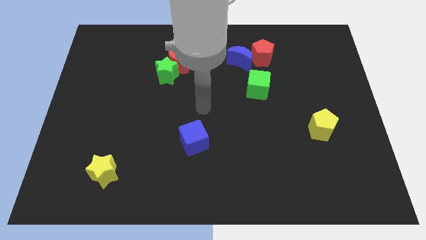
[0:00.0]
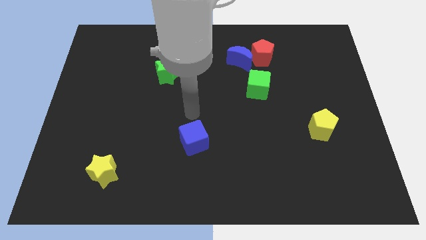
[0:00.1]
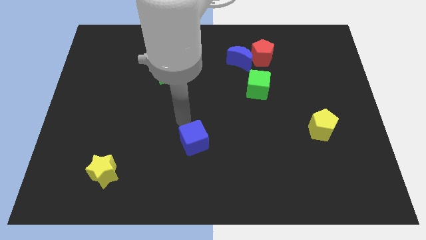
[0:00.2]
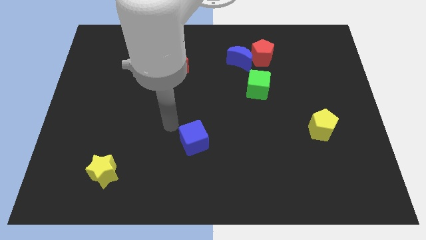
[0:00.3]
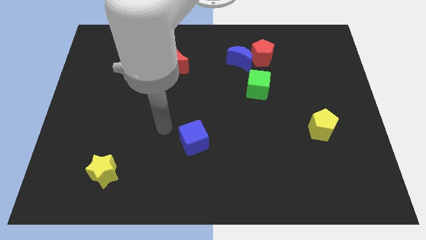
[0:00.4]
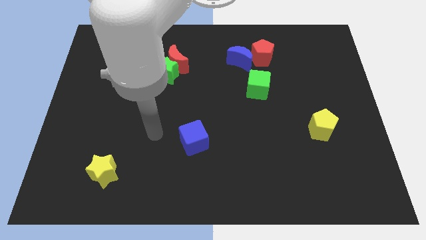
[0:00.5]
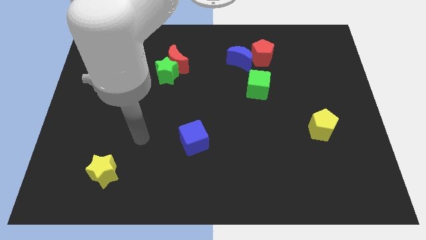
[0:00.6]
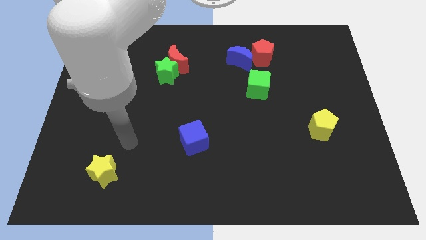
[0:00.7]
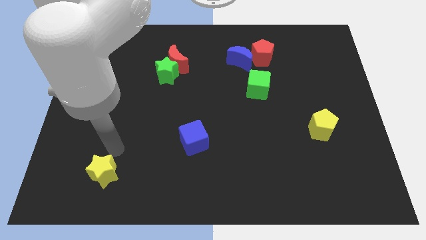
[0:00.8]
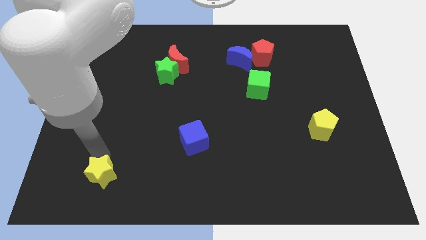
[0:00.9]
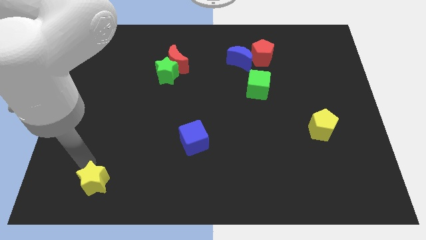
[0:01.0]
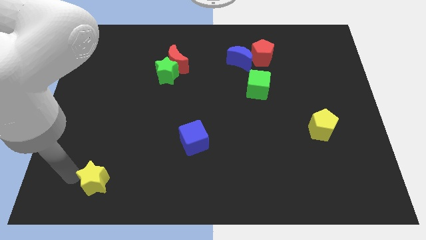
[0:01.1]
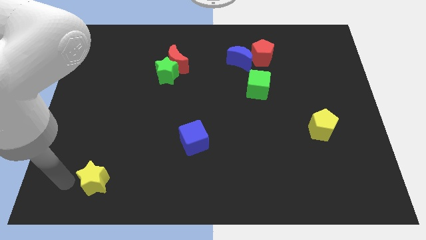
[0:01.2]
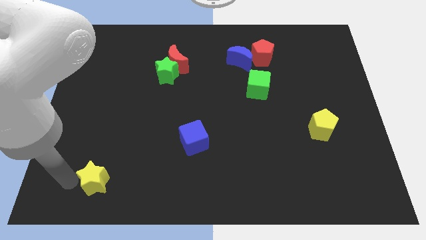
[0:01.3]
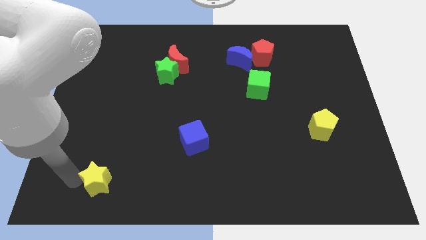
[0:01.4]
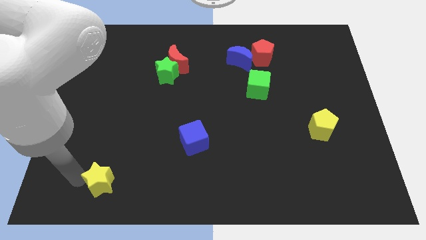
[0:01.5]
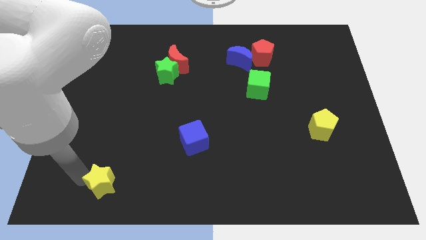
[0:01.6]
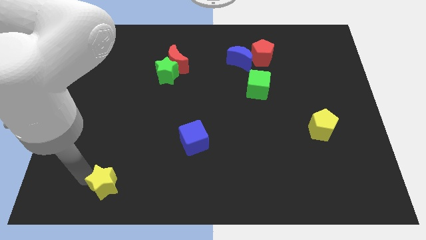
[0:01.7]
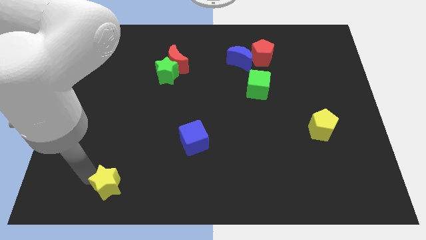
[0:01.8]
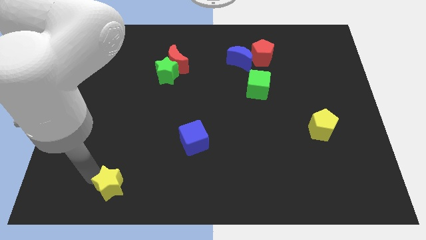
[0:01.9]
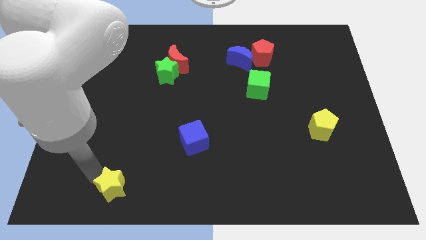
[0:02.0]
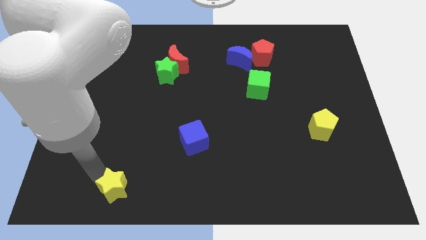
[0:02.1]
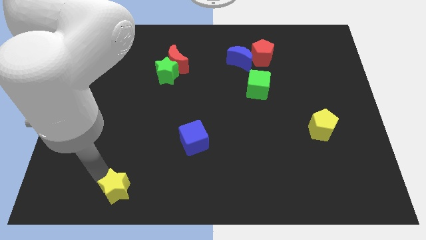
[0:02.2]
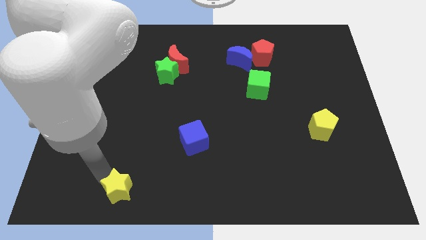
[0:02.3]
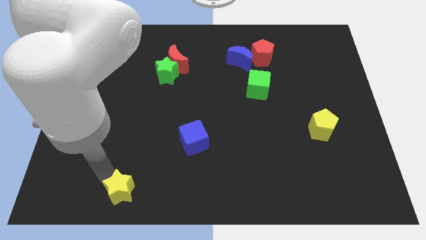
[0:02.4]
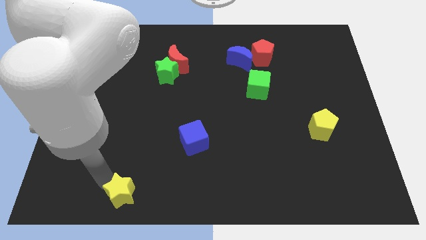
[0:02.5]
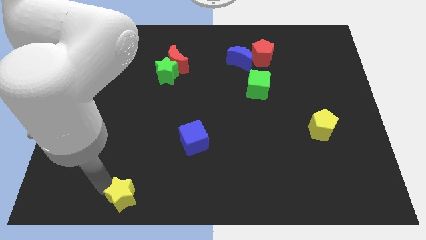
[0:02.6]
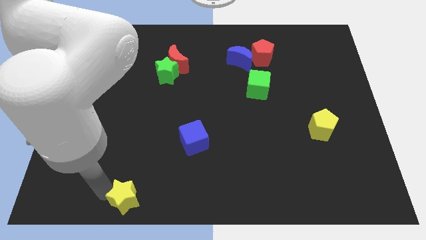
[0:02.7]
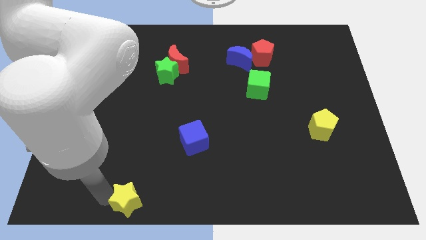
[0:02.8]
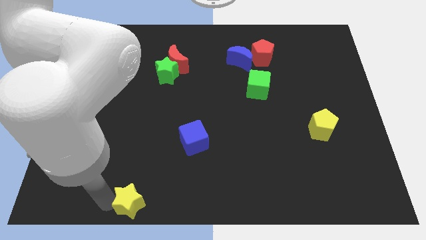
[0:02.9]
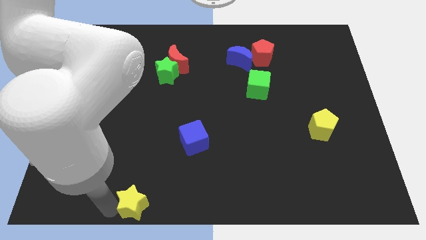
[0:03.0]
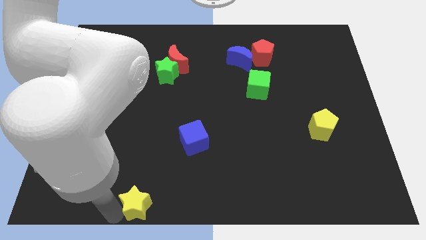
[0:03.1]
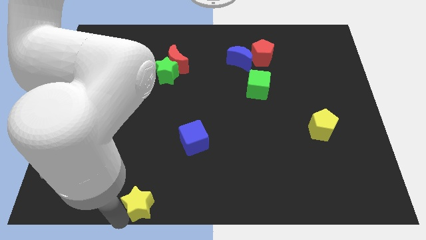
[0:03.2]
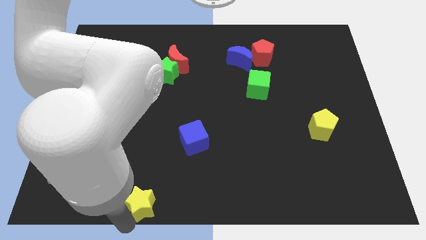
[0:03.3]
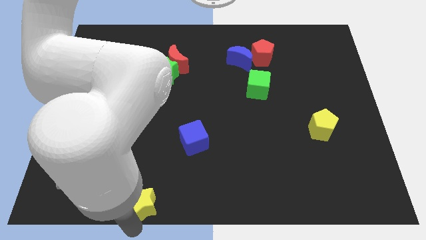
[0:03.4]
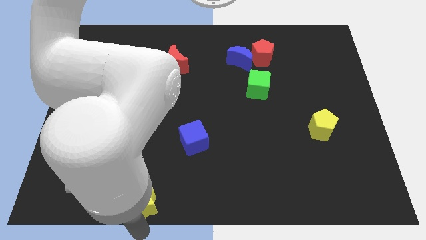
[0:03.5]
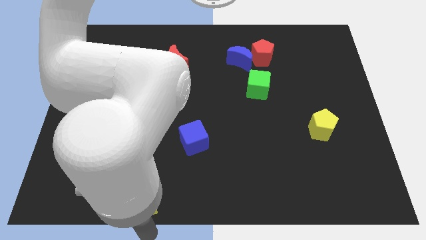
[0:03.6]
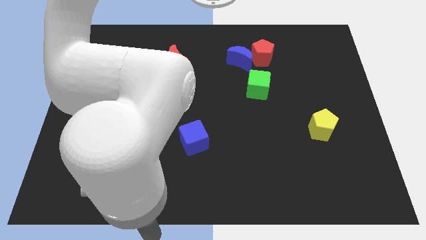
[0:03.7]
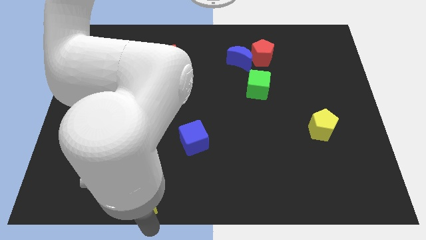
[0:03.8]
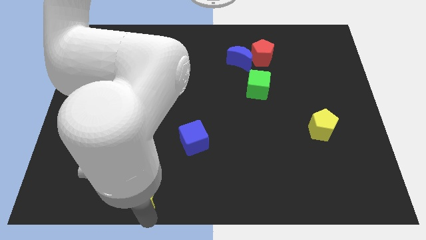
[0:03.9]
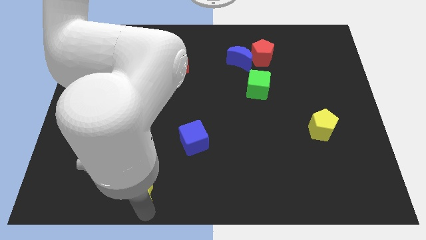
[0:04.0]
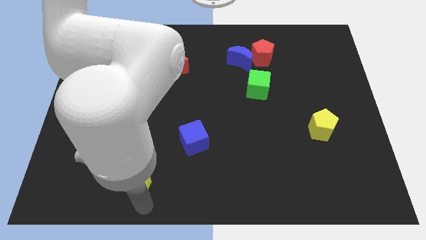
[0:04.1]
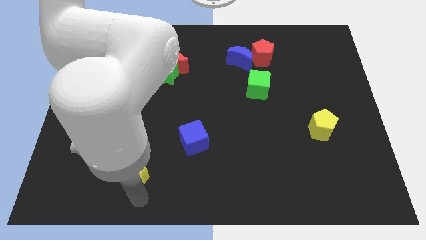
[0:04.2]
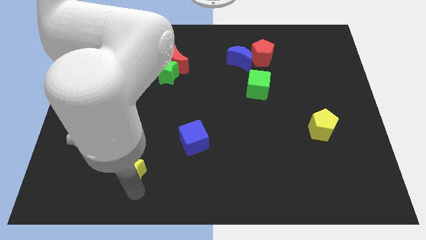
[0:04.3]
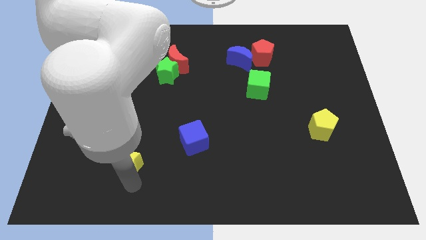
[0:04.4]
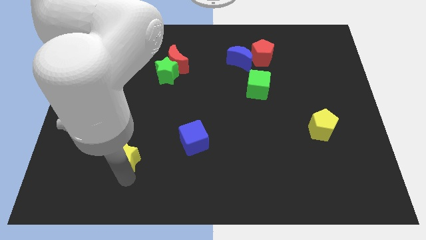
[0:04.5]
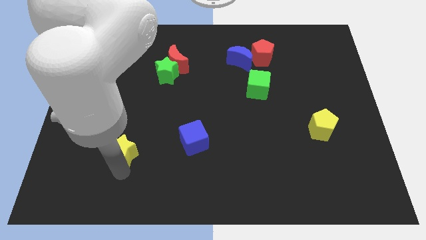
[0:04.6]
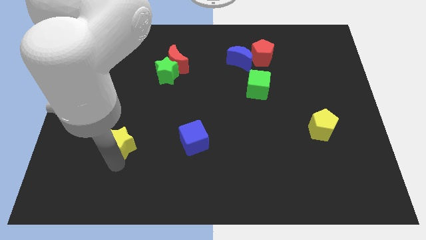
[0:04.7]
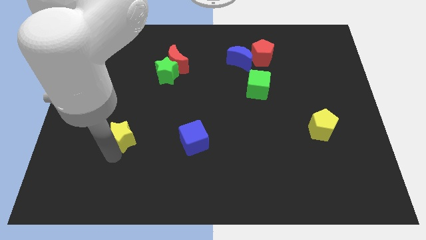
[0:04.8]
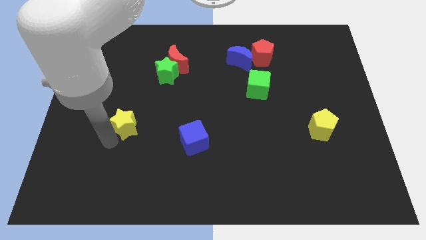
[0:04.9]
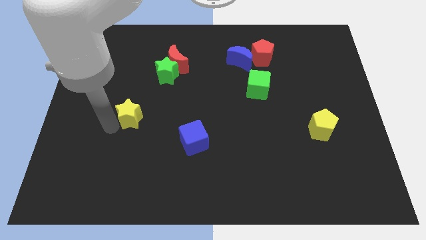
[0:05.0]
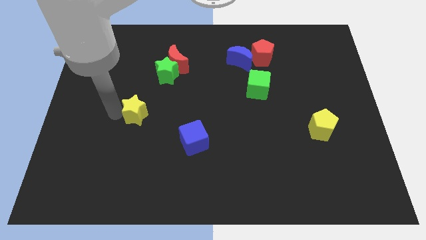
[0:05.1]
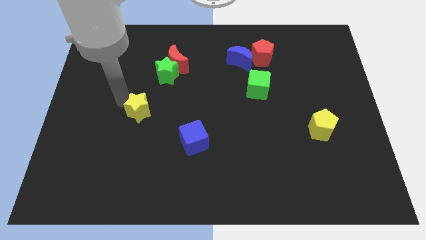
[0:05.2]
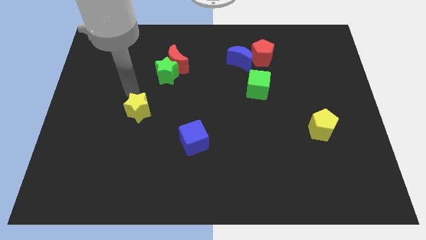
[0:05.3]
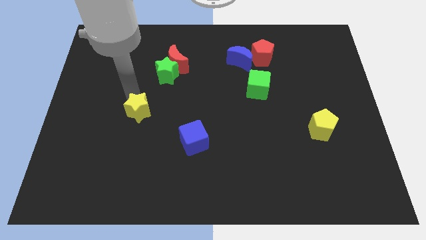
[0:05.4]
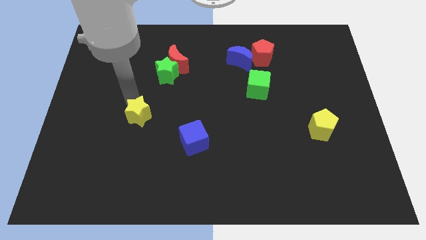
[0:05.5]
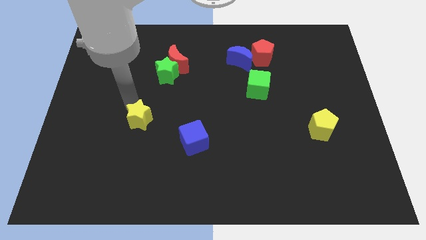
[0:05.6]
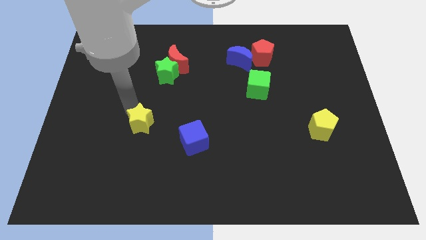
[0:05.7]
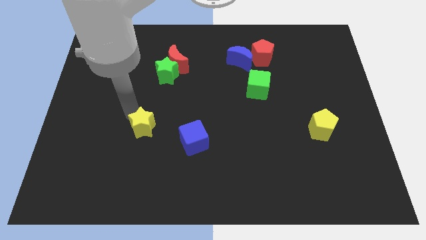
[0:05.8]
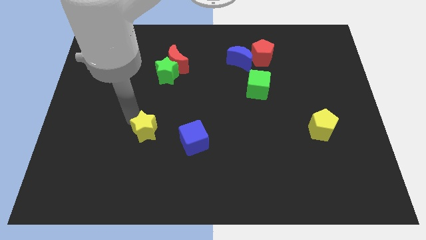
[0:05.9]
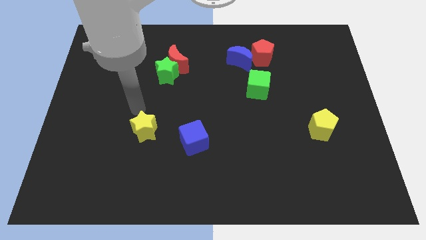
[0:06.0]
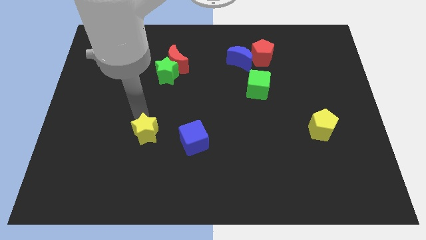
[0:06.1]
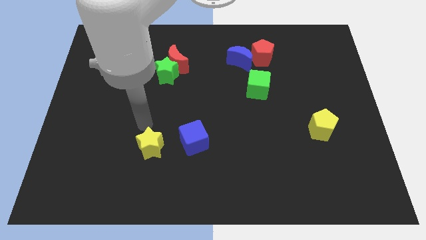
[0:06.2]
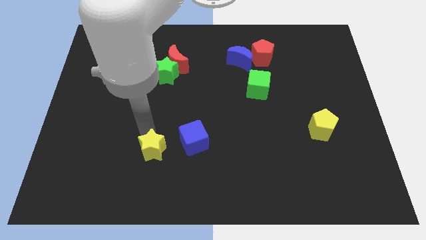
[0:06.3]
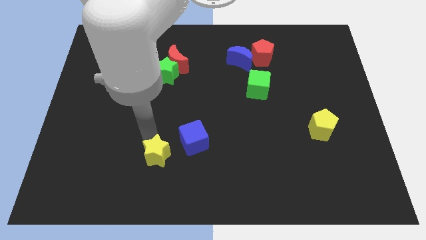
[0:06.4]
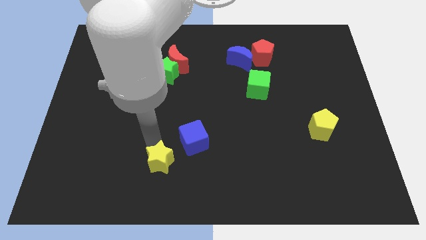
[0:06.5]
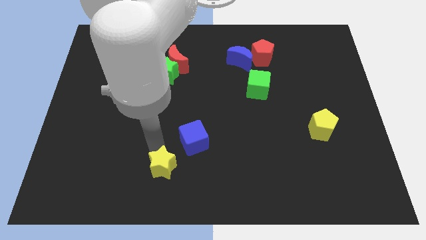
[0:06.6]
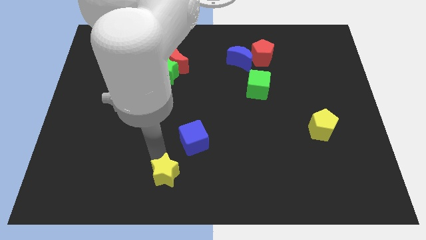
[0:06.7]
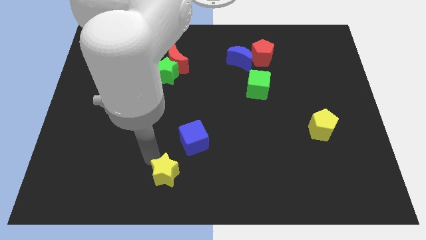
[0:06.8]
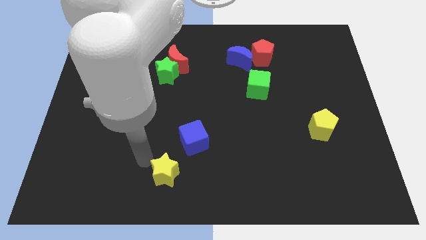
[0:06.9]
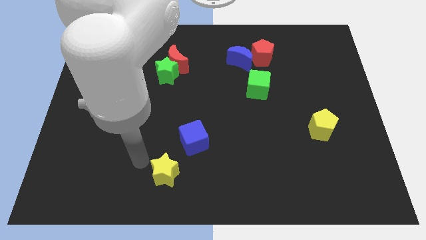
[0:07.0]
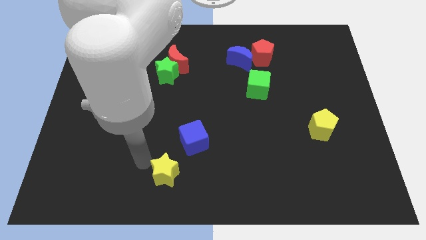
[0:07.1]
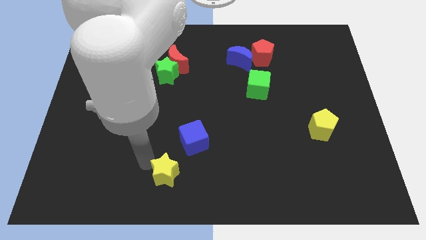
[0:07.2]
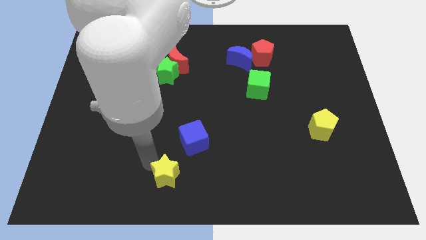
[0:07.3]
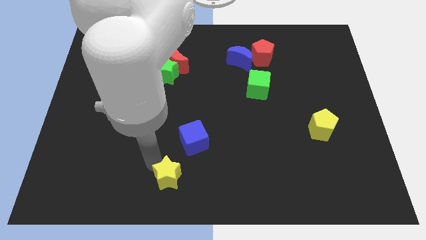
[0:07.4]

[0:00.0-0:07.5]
put the yellow star to the bottom side of the blue cube
